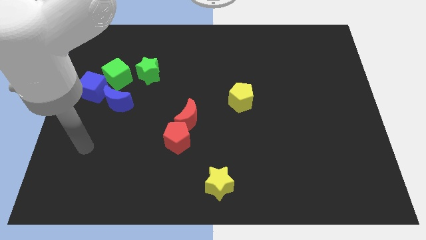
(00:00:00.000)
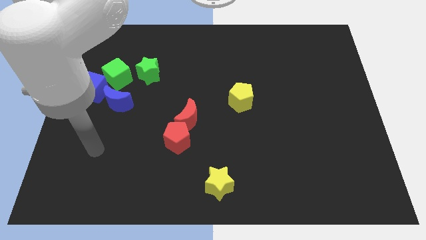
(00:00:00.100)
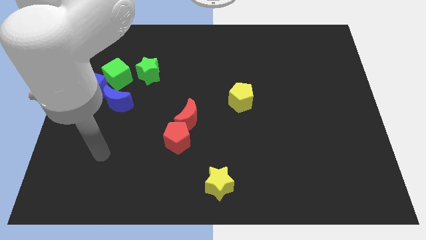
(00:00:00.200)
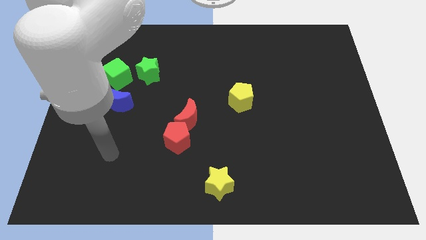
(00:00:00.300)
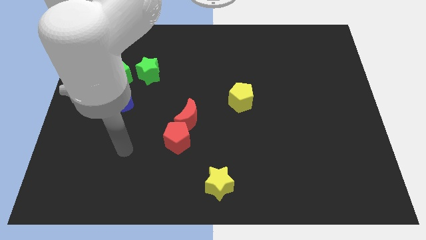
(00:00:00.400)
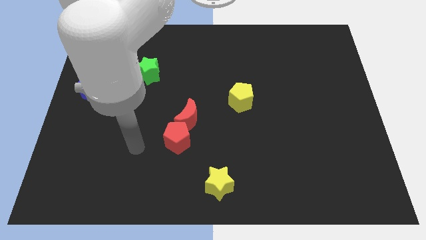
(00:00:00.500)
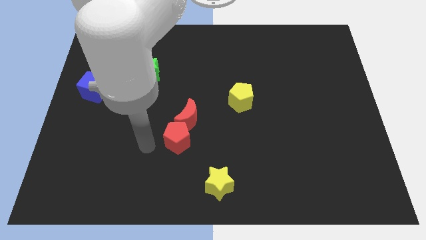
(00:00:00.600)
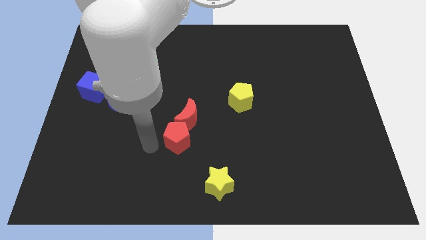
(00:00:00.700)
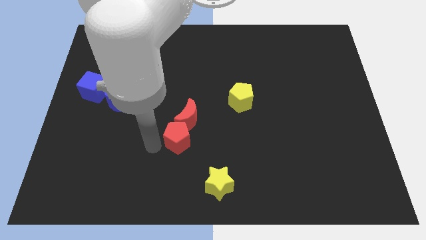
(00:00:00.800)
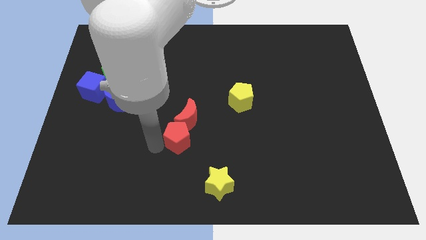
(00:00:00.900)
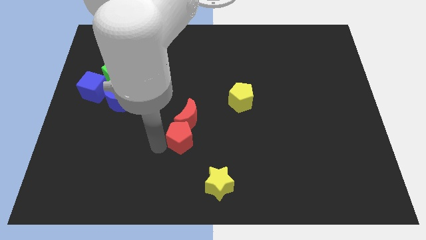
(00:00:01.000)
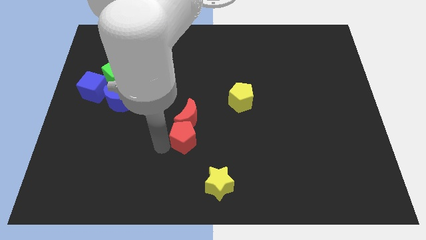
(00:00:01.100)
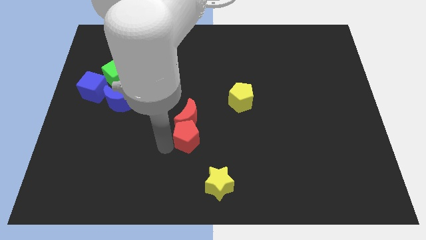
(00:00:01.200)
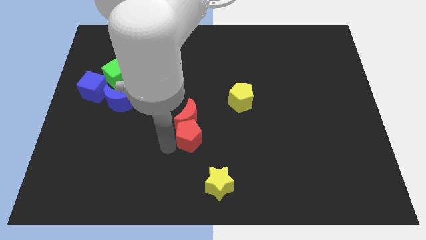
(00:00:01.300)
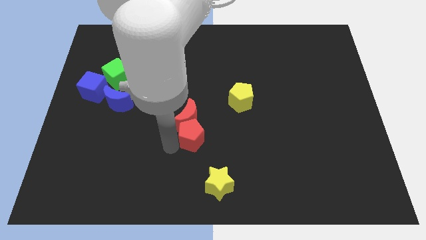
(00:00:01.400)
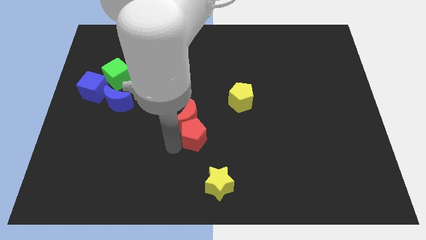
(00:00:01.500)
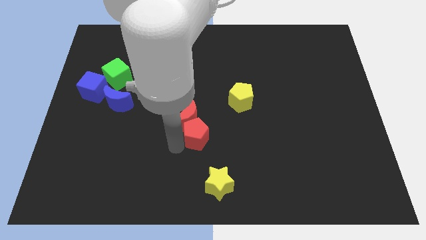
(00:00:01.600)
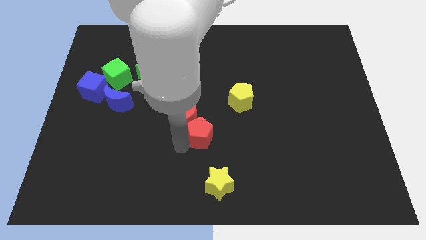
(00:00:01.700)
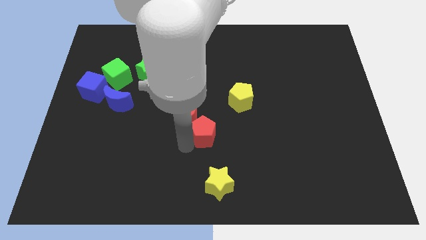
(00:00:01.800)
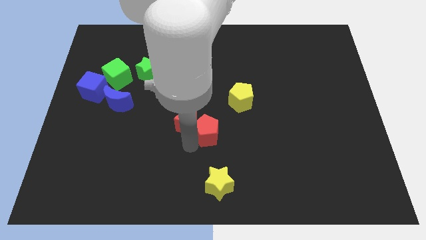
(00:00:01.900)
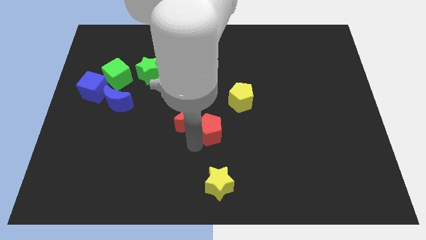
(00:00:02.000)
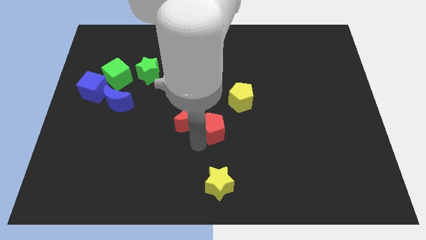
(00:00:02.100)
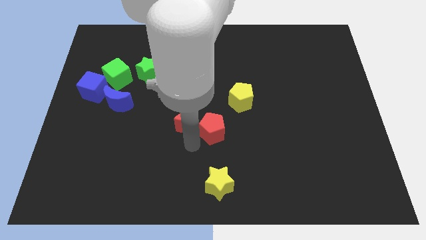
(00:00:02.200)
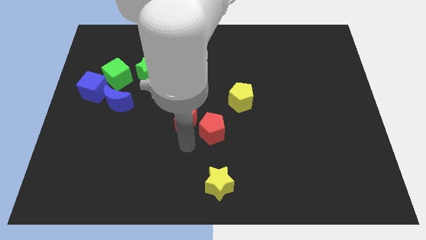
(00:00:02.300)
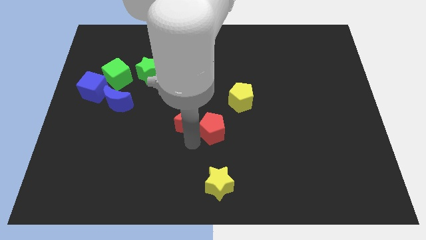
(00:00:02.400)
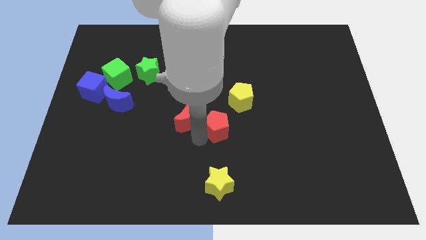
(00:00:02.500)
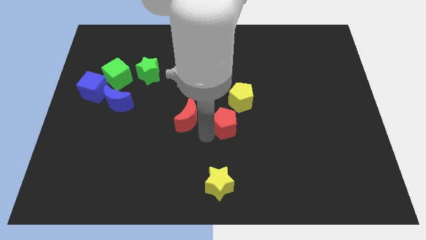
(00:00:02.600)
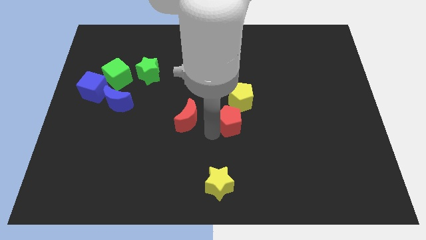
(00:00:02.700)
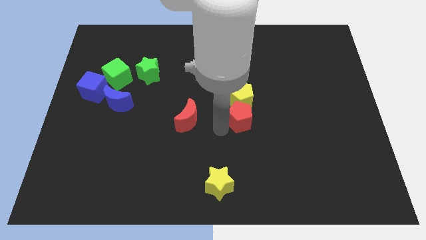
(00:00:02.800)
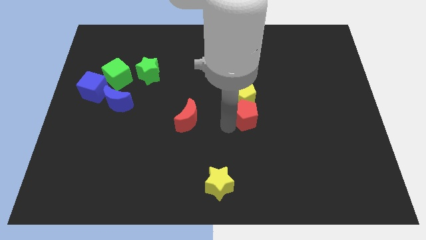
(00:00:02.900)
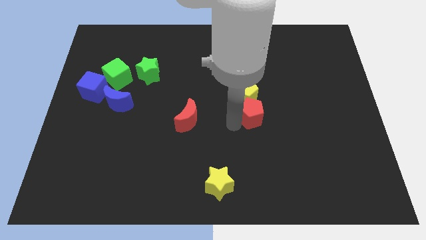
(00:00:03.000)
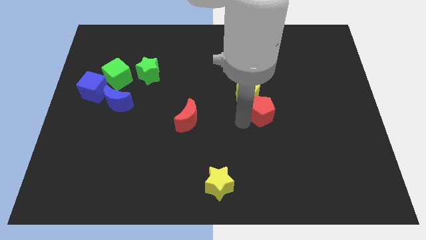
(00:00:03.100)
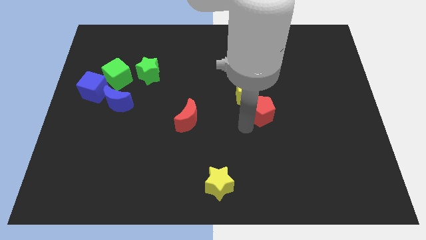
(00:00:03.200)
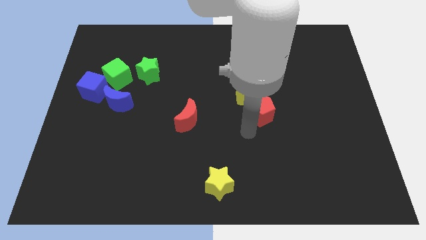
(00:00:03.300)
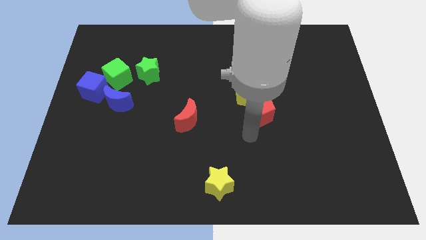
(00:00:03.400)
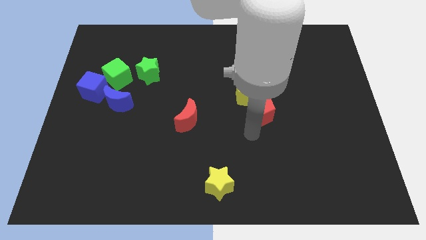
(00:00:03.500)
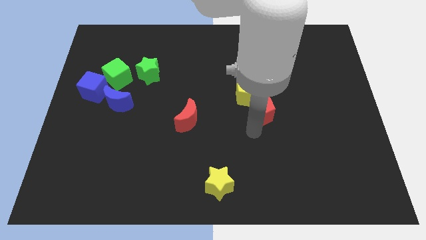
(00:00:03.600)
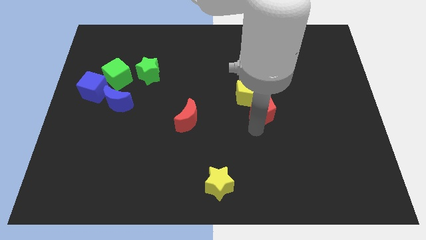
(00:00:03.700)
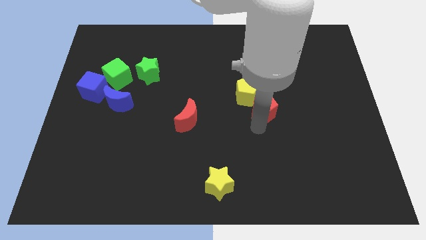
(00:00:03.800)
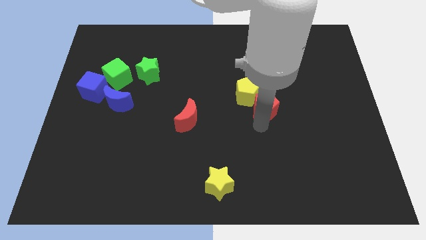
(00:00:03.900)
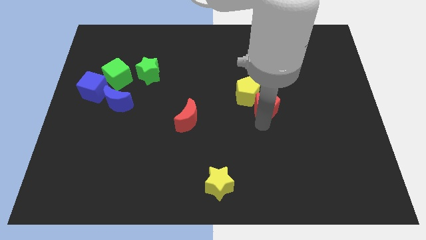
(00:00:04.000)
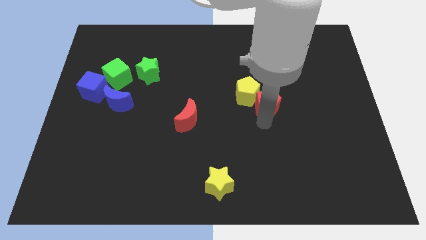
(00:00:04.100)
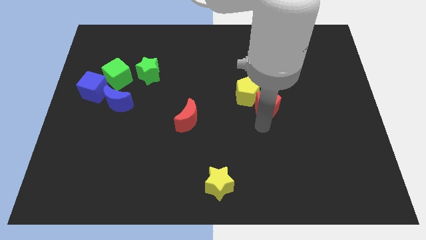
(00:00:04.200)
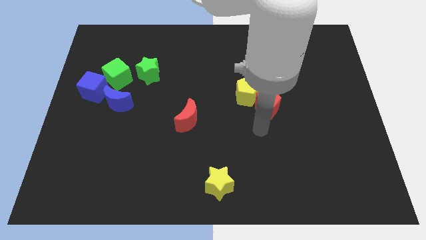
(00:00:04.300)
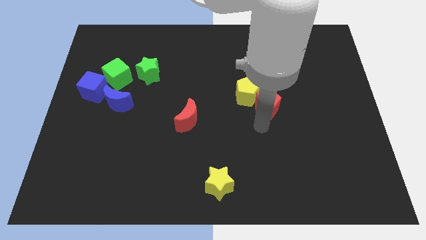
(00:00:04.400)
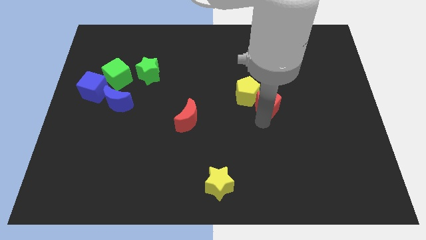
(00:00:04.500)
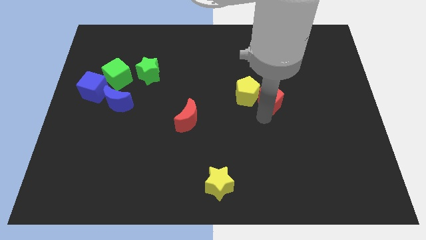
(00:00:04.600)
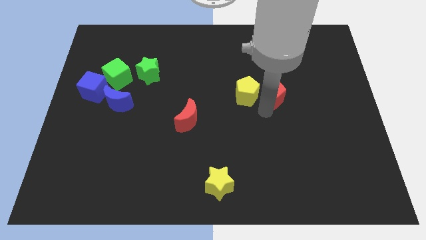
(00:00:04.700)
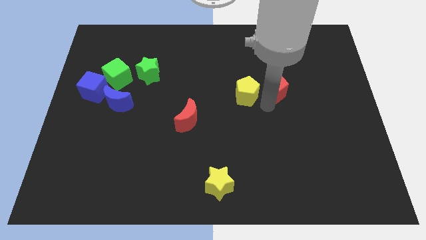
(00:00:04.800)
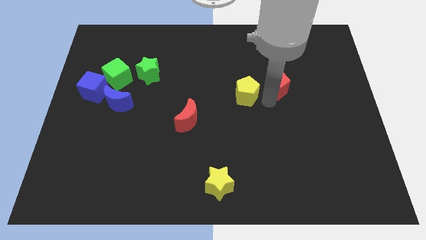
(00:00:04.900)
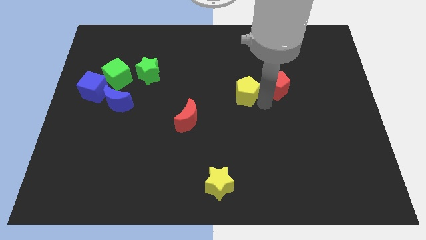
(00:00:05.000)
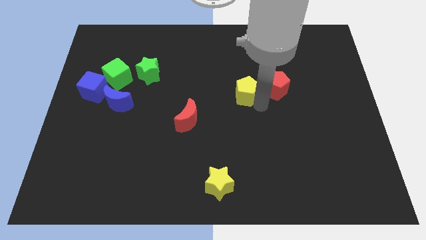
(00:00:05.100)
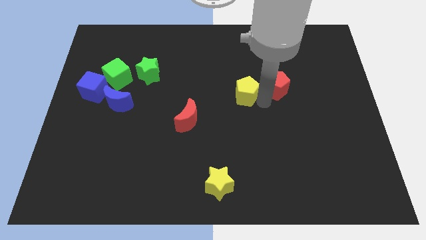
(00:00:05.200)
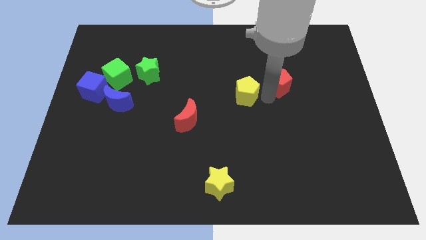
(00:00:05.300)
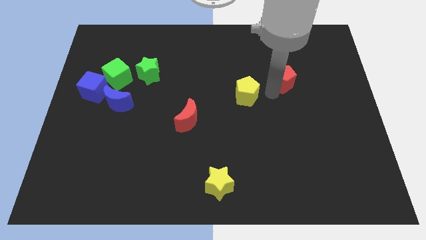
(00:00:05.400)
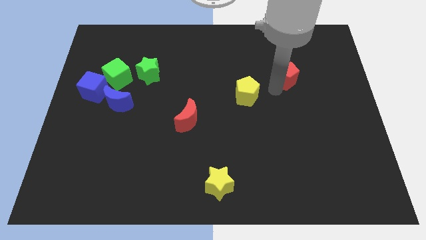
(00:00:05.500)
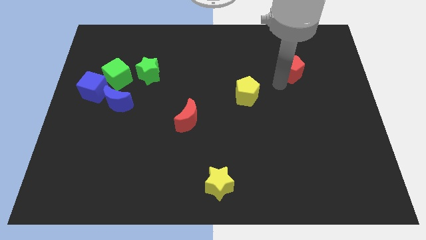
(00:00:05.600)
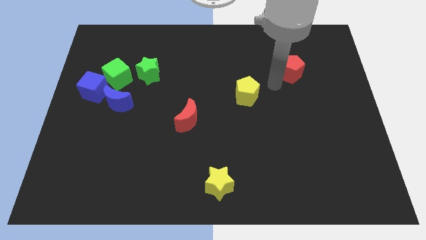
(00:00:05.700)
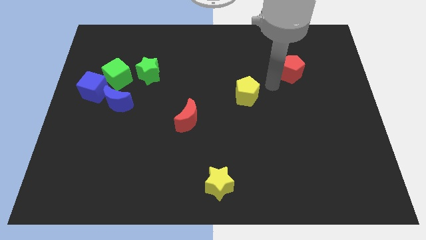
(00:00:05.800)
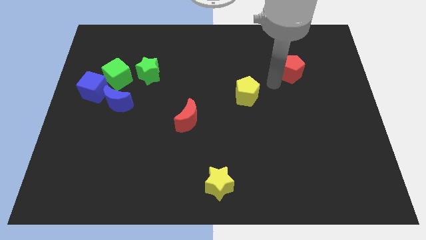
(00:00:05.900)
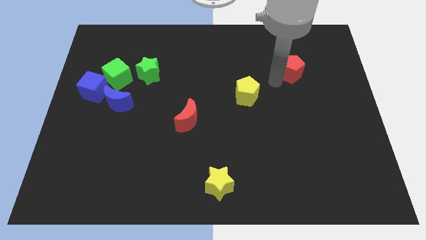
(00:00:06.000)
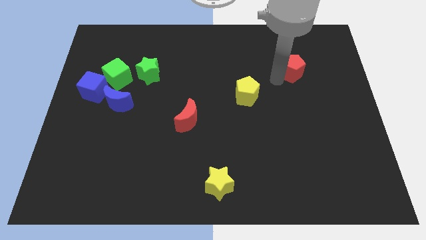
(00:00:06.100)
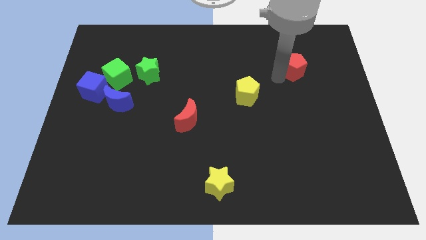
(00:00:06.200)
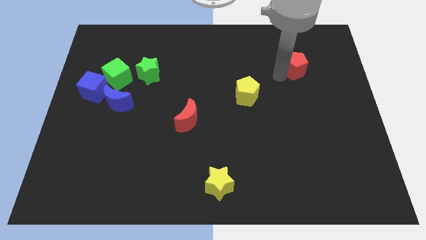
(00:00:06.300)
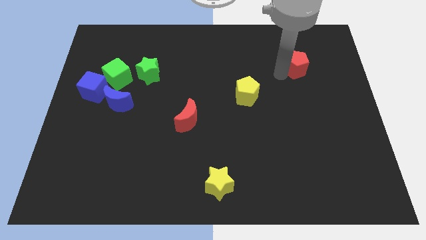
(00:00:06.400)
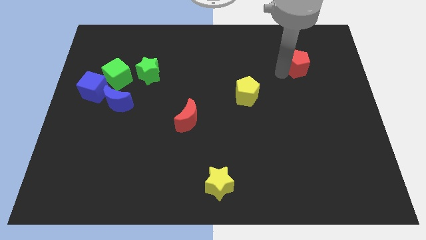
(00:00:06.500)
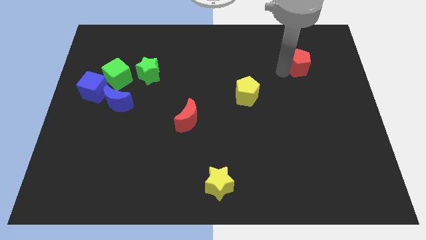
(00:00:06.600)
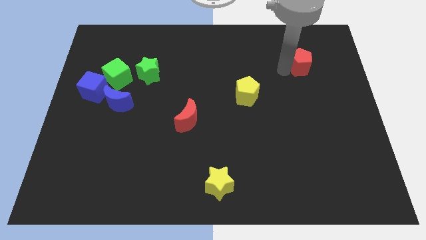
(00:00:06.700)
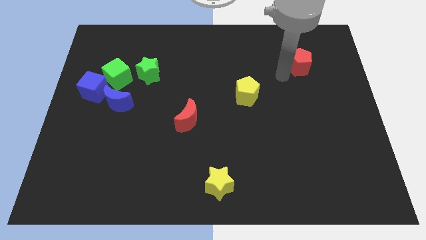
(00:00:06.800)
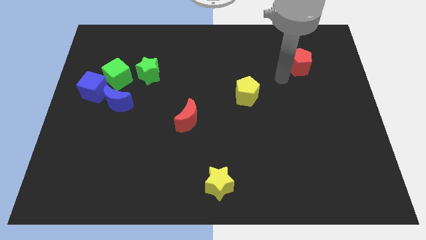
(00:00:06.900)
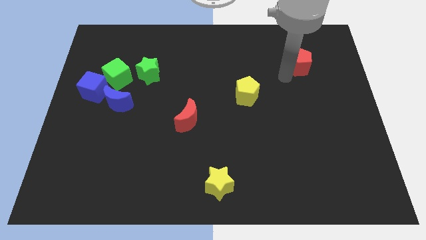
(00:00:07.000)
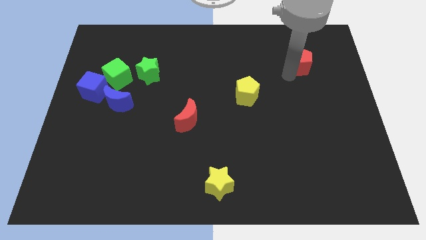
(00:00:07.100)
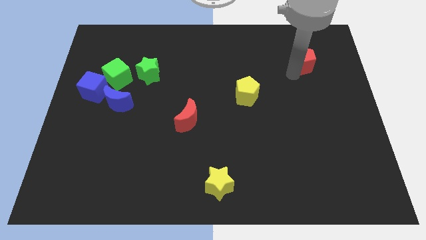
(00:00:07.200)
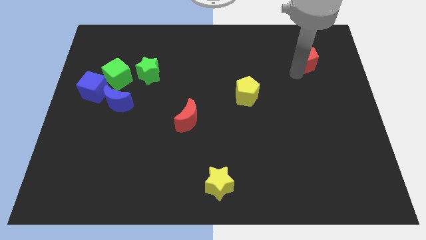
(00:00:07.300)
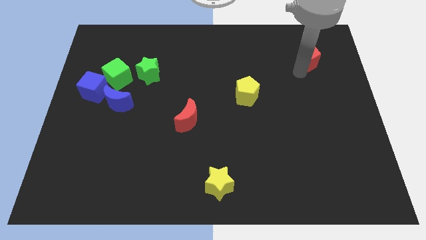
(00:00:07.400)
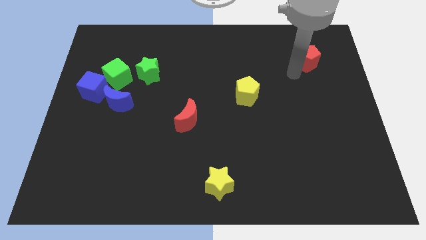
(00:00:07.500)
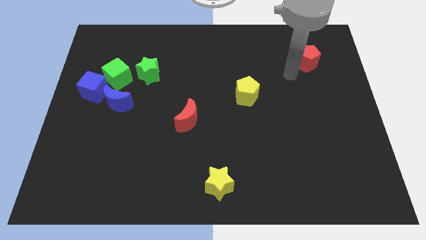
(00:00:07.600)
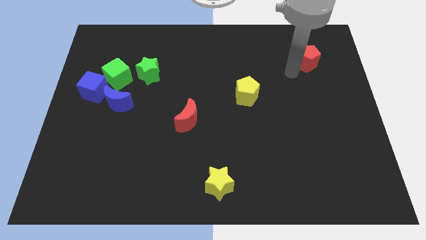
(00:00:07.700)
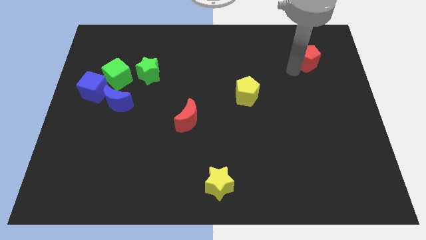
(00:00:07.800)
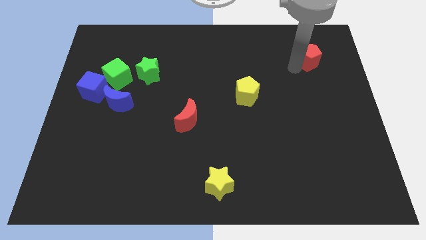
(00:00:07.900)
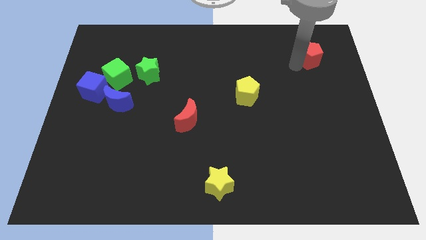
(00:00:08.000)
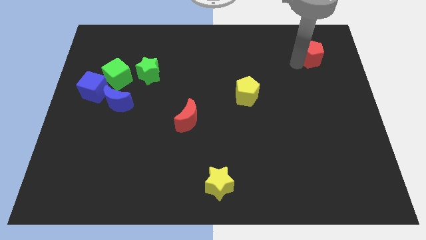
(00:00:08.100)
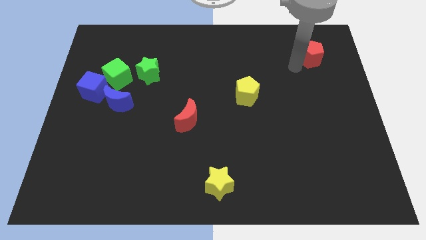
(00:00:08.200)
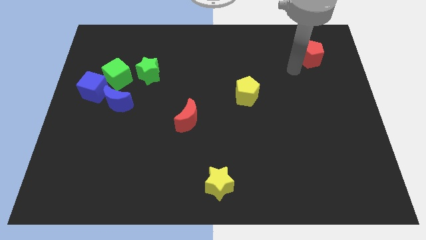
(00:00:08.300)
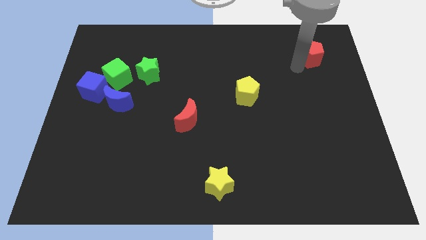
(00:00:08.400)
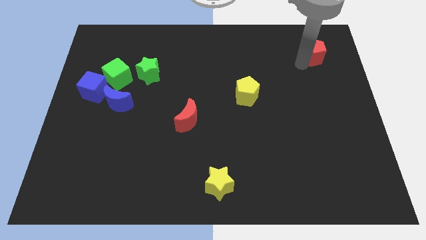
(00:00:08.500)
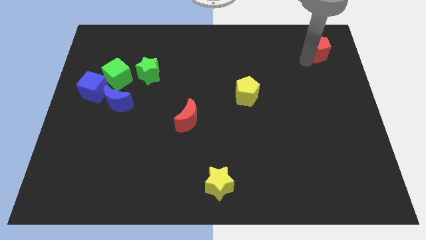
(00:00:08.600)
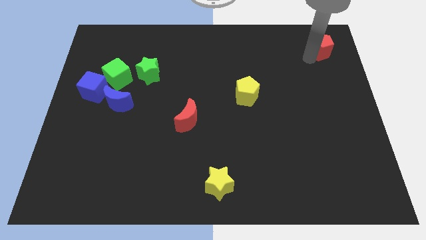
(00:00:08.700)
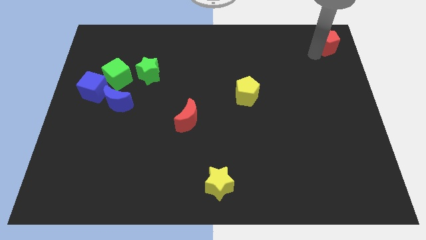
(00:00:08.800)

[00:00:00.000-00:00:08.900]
slide the red pentagon to the top right corner
